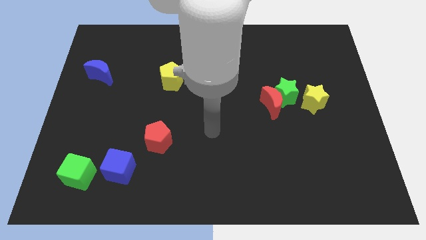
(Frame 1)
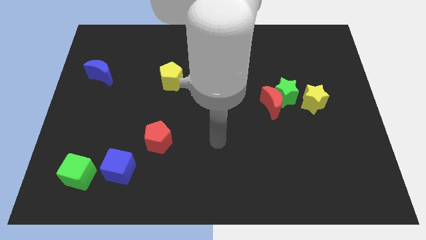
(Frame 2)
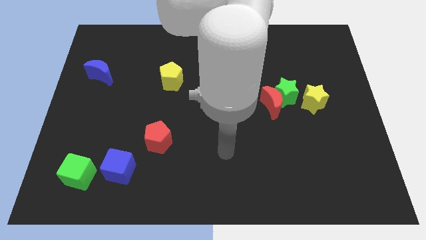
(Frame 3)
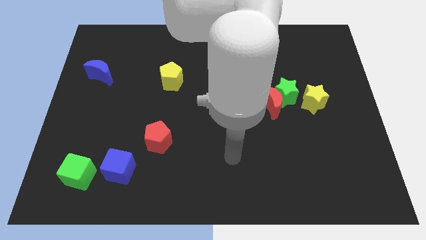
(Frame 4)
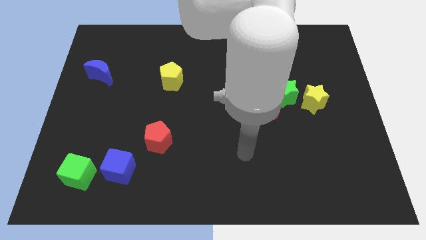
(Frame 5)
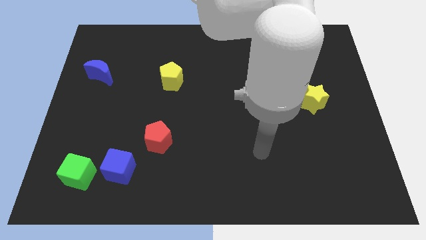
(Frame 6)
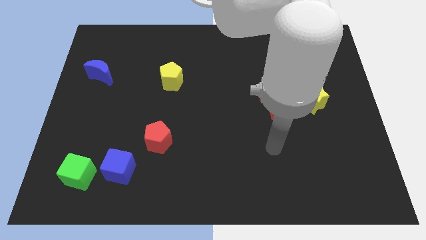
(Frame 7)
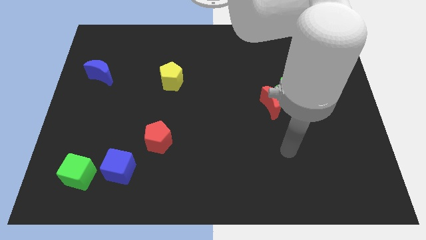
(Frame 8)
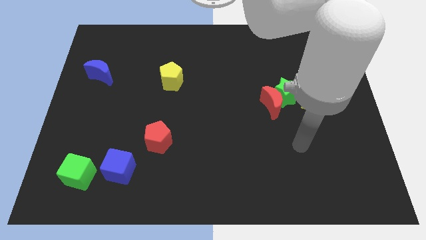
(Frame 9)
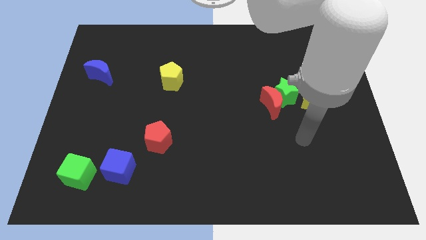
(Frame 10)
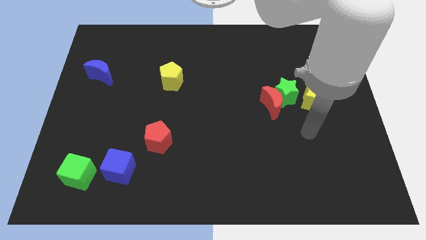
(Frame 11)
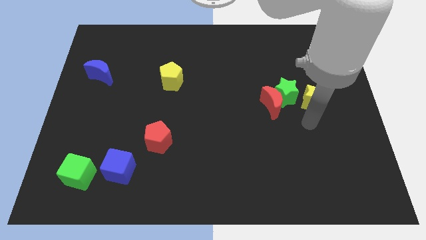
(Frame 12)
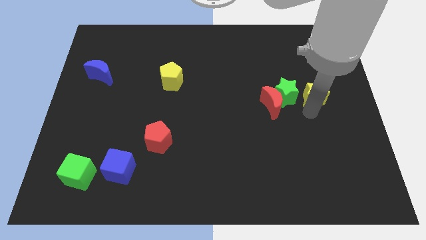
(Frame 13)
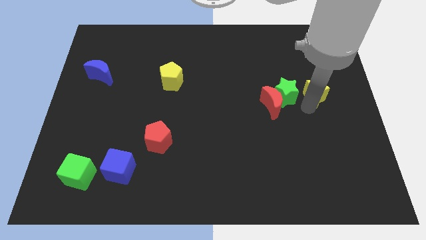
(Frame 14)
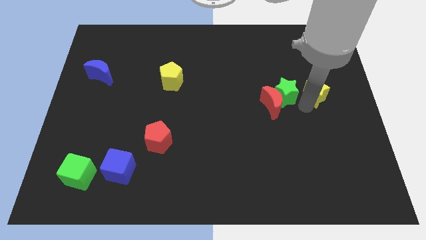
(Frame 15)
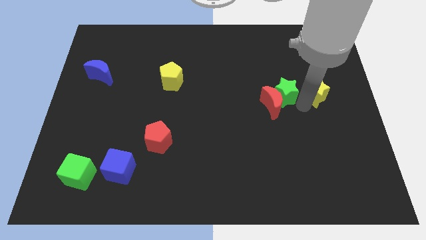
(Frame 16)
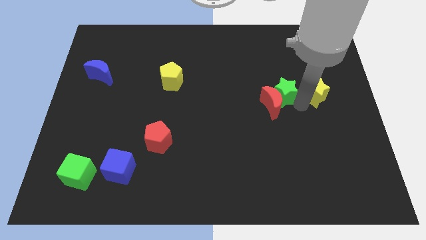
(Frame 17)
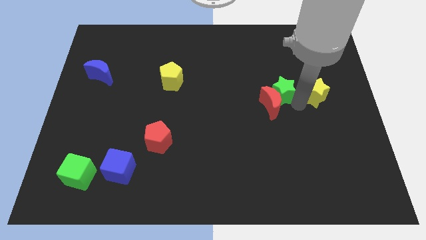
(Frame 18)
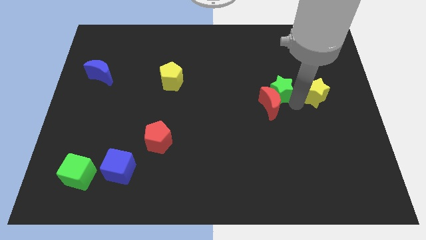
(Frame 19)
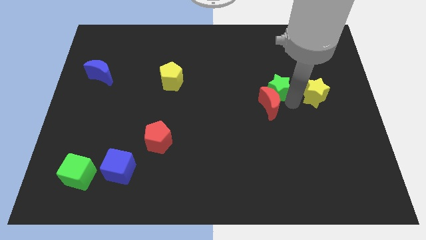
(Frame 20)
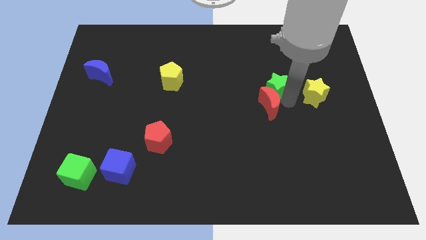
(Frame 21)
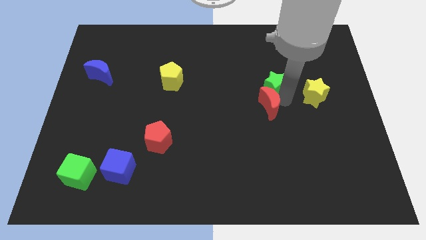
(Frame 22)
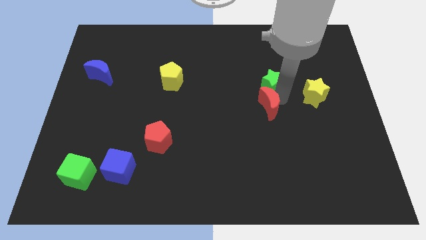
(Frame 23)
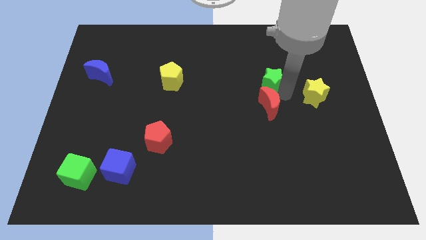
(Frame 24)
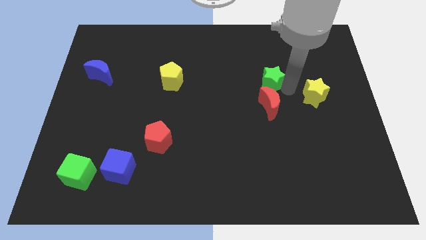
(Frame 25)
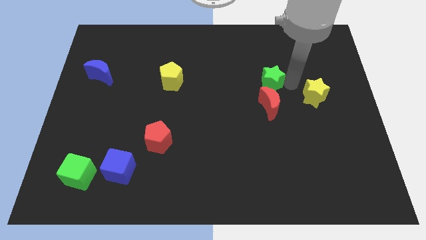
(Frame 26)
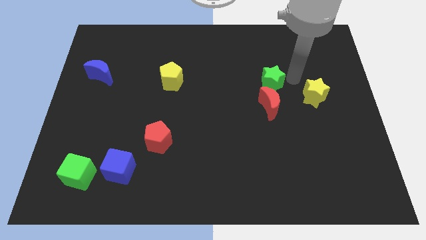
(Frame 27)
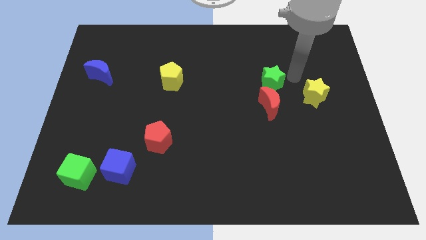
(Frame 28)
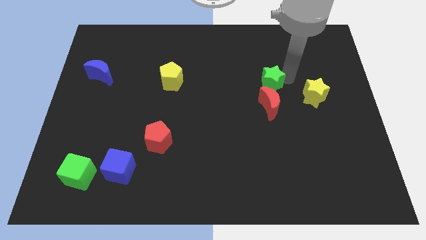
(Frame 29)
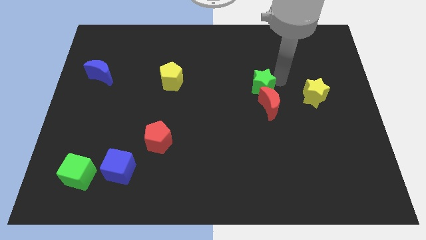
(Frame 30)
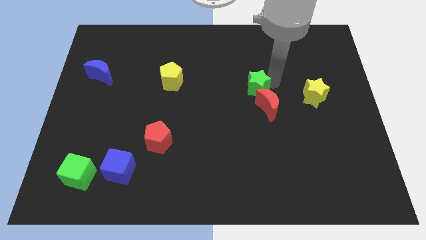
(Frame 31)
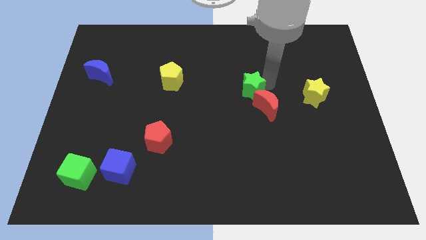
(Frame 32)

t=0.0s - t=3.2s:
slightly move the green star left

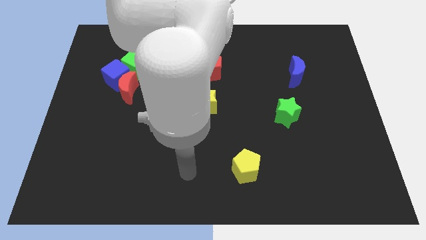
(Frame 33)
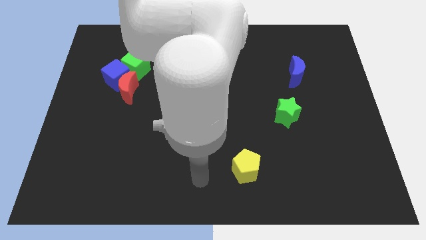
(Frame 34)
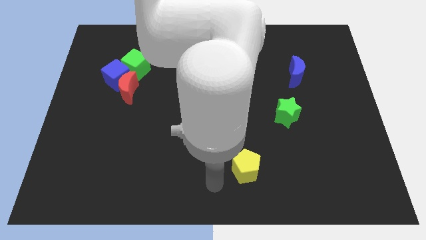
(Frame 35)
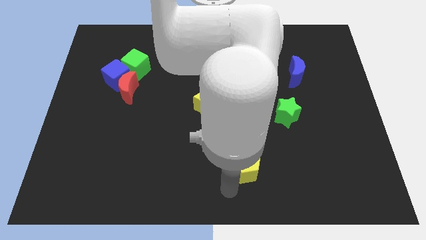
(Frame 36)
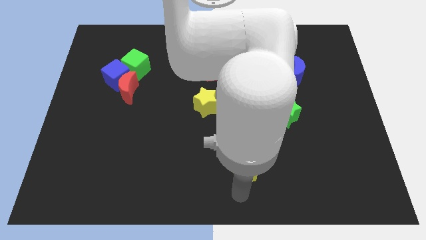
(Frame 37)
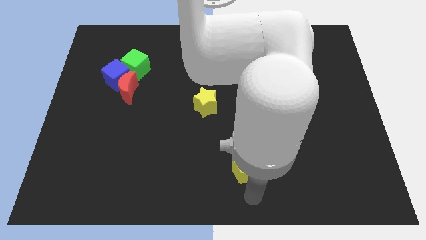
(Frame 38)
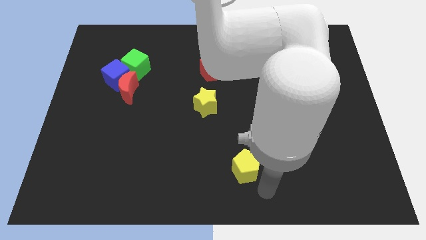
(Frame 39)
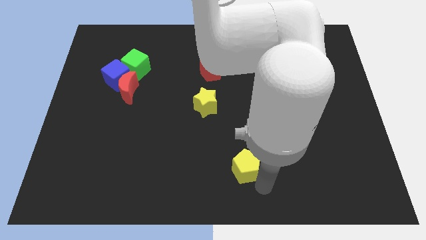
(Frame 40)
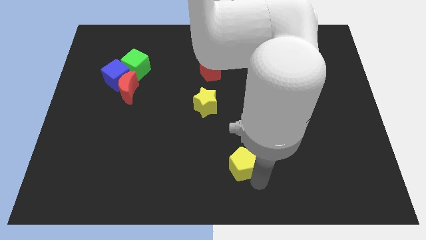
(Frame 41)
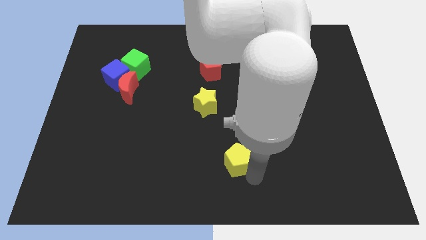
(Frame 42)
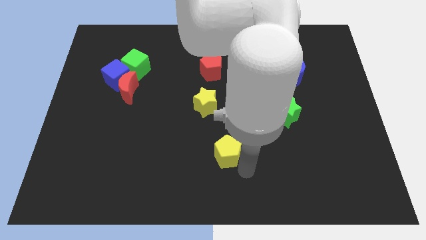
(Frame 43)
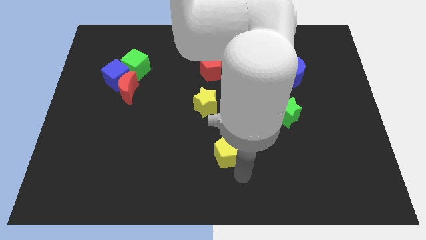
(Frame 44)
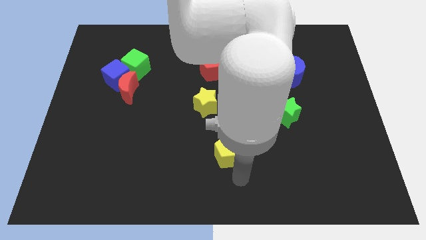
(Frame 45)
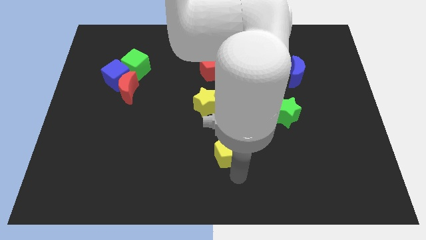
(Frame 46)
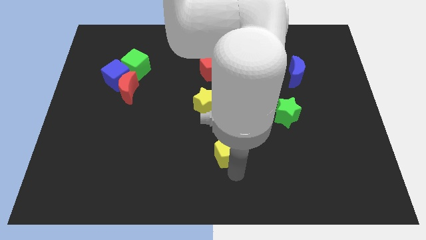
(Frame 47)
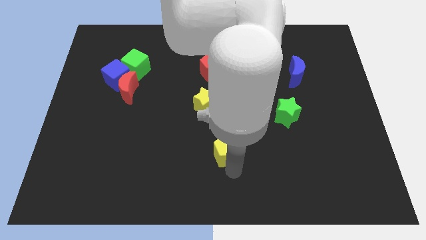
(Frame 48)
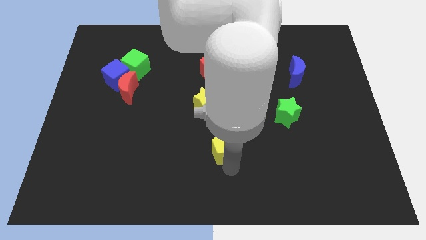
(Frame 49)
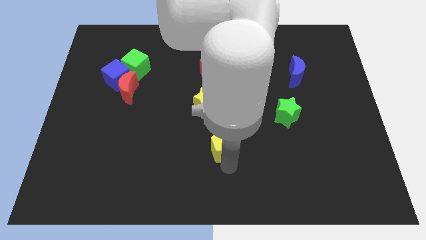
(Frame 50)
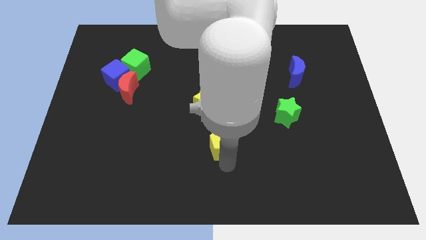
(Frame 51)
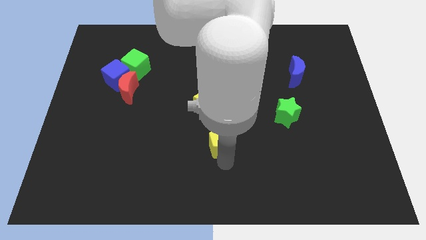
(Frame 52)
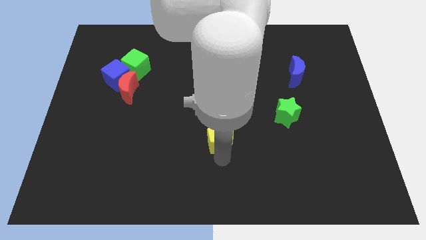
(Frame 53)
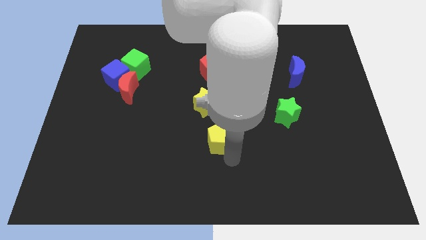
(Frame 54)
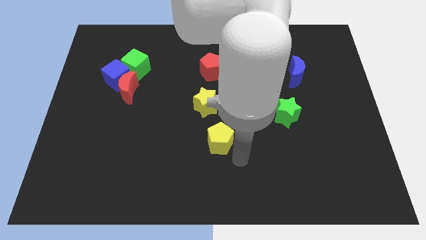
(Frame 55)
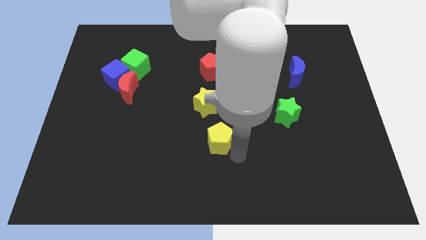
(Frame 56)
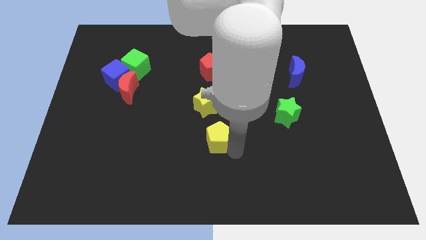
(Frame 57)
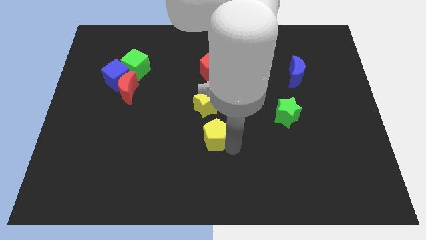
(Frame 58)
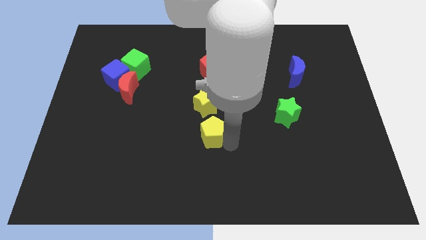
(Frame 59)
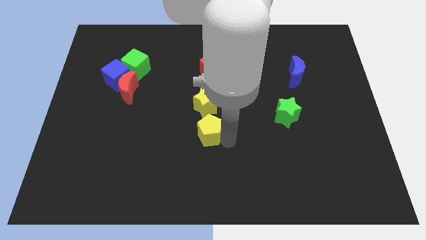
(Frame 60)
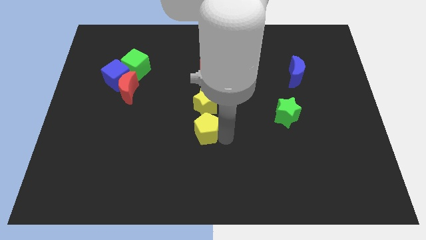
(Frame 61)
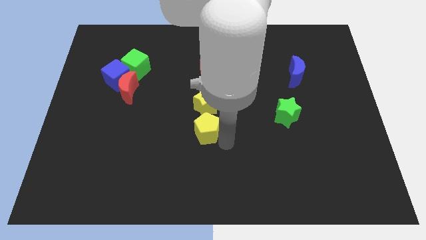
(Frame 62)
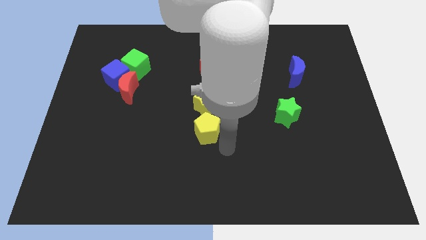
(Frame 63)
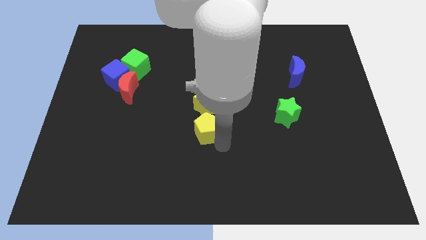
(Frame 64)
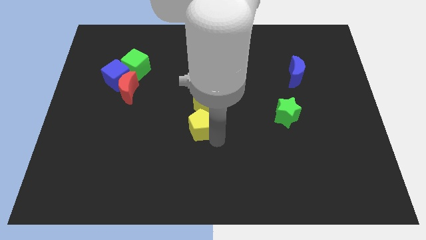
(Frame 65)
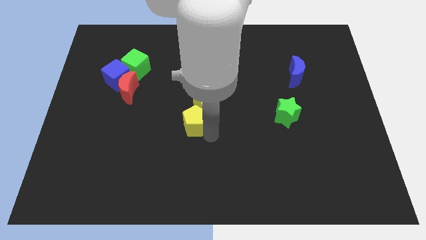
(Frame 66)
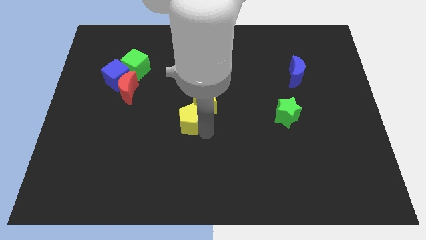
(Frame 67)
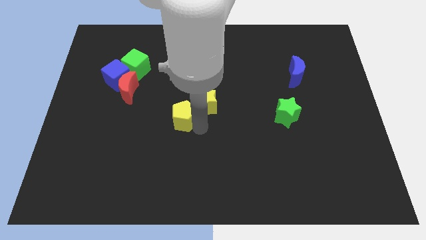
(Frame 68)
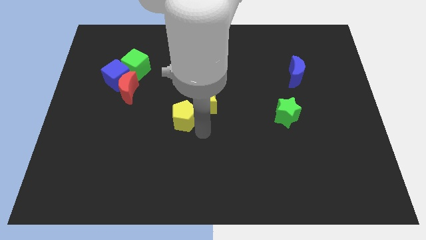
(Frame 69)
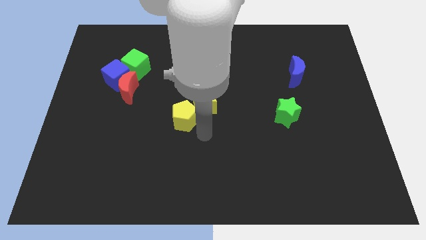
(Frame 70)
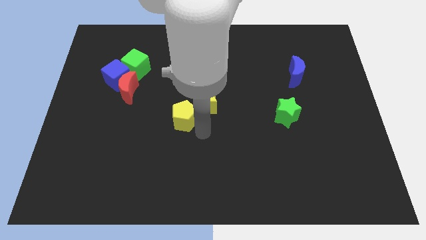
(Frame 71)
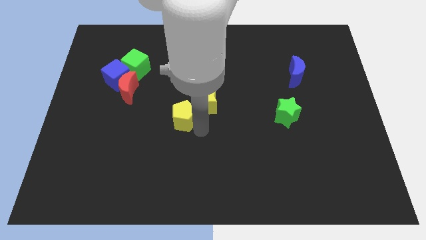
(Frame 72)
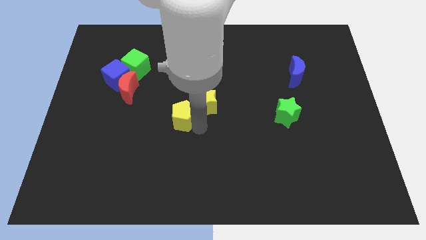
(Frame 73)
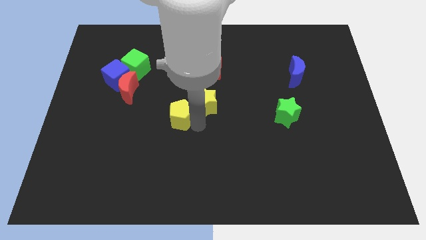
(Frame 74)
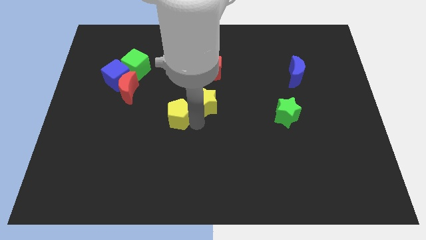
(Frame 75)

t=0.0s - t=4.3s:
push the yellow pentagon diagonally upwards and left

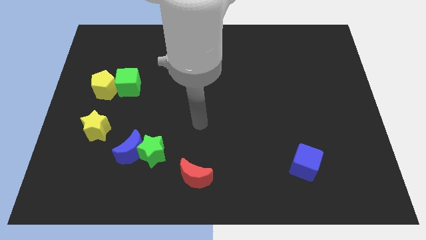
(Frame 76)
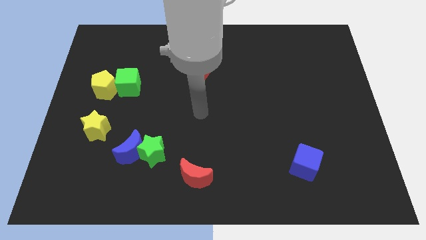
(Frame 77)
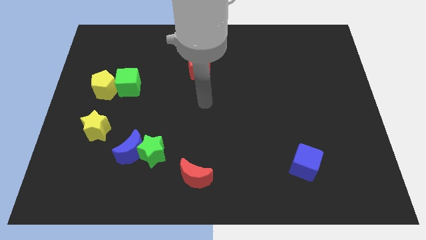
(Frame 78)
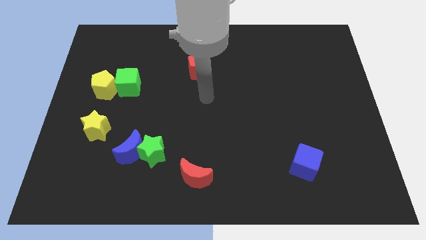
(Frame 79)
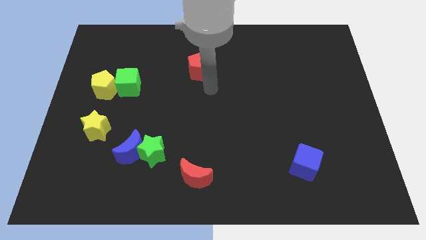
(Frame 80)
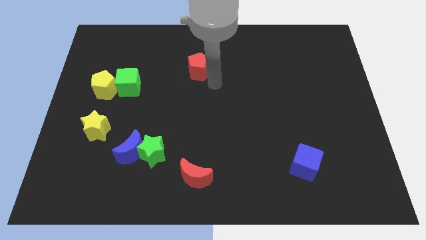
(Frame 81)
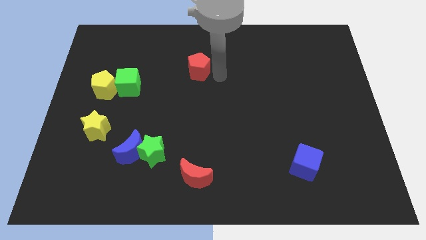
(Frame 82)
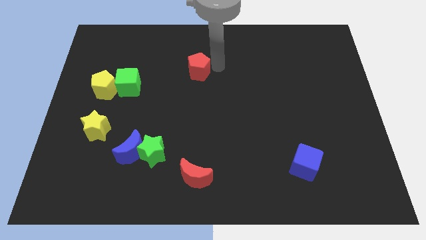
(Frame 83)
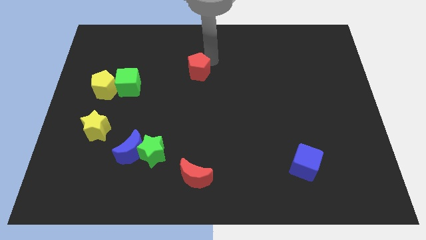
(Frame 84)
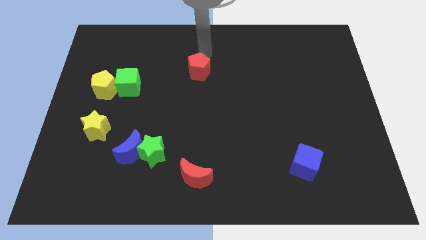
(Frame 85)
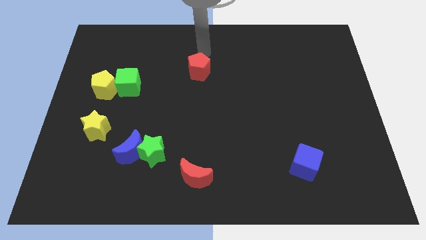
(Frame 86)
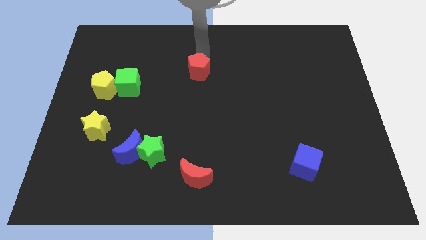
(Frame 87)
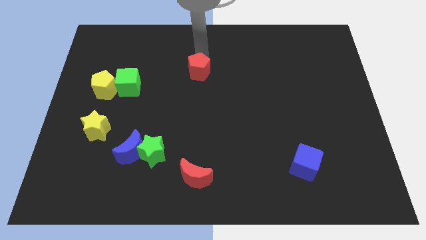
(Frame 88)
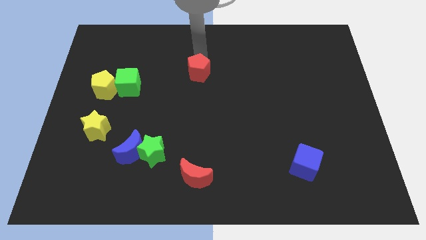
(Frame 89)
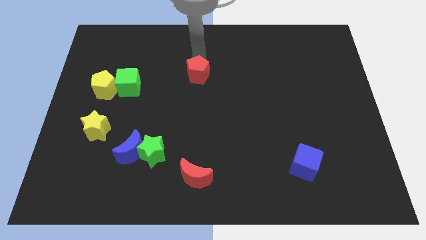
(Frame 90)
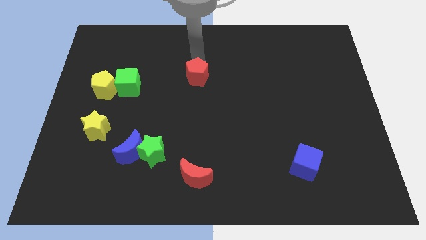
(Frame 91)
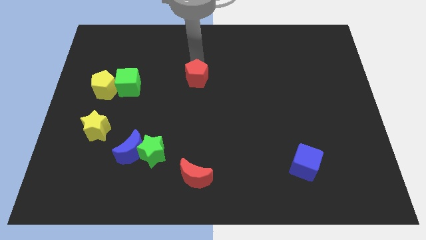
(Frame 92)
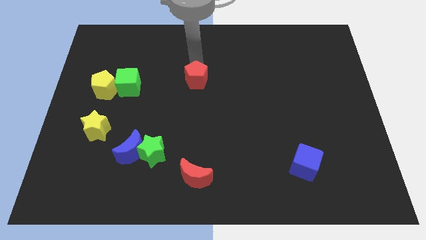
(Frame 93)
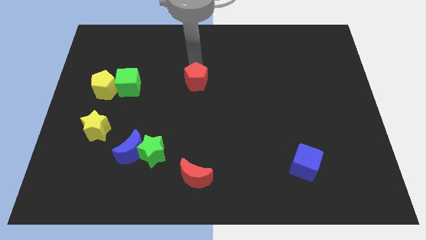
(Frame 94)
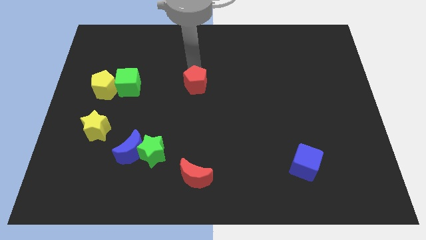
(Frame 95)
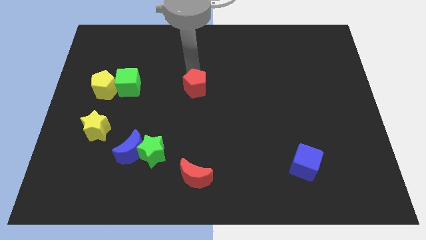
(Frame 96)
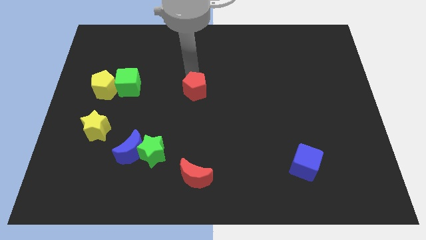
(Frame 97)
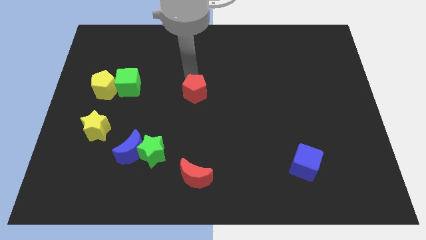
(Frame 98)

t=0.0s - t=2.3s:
push the red pentagon downwards a little bit
